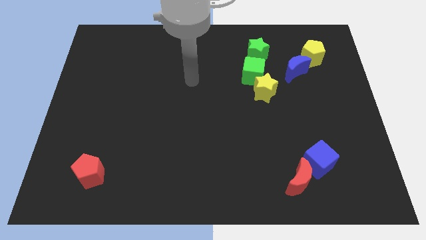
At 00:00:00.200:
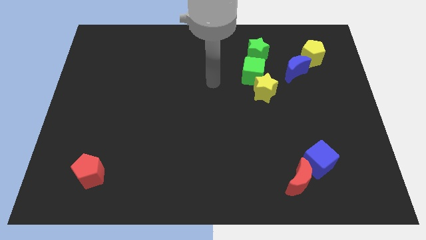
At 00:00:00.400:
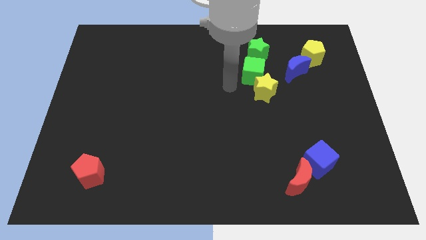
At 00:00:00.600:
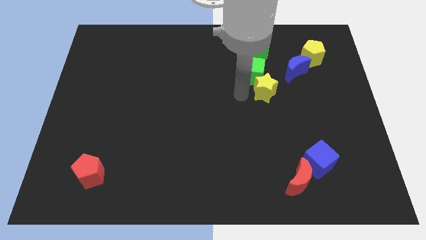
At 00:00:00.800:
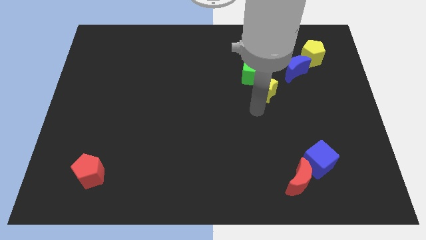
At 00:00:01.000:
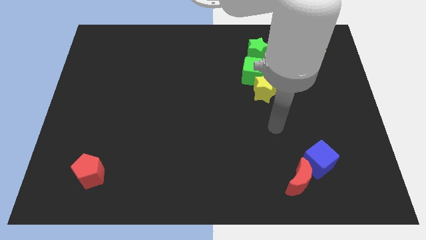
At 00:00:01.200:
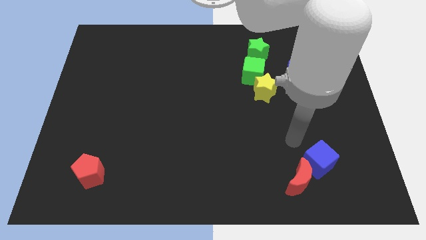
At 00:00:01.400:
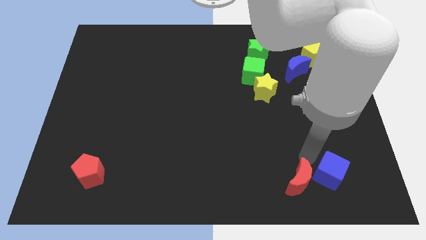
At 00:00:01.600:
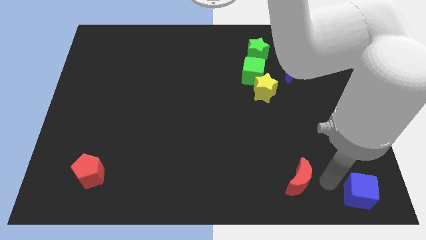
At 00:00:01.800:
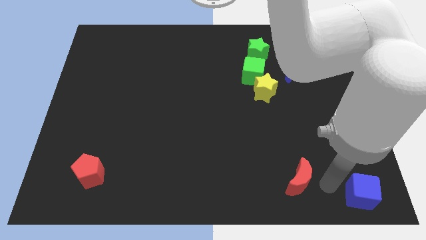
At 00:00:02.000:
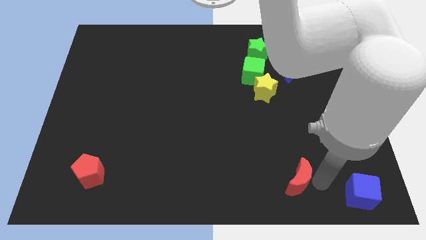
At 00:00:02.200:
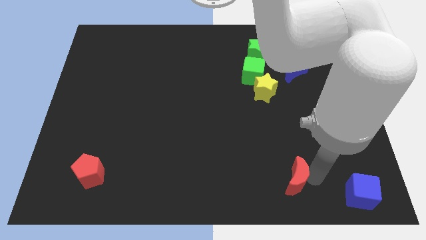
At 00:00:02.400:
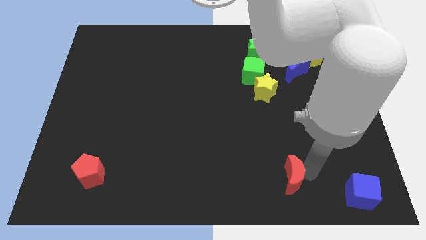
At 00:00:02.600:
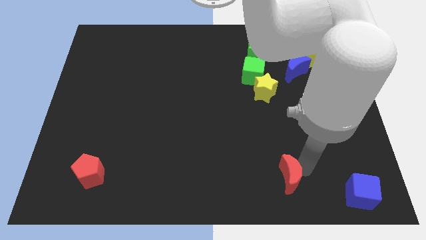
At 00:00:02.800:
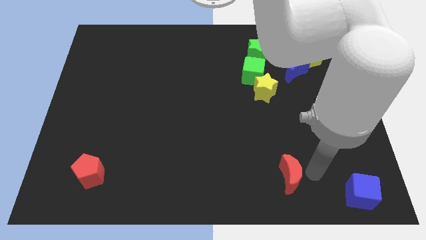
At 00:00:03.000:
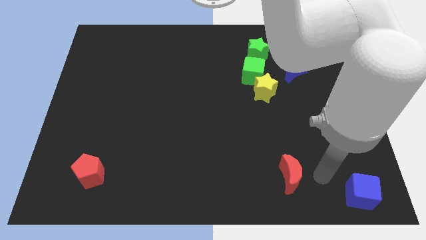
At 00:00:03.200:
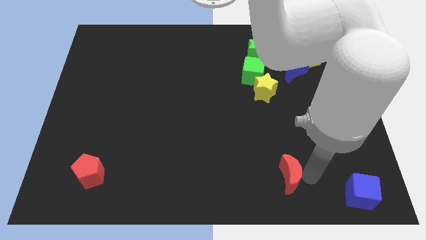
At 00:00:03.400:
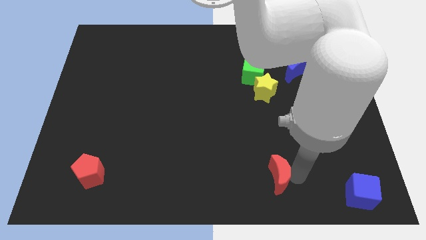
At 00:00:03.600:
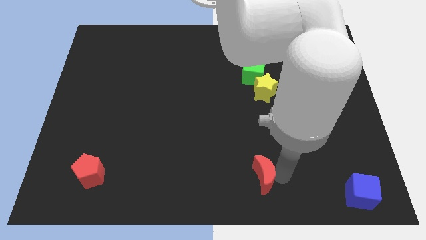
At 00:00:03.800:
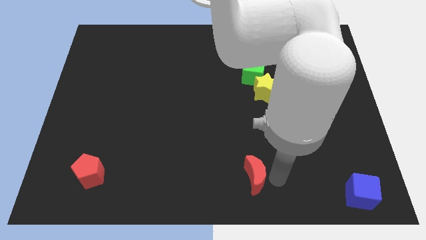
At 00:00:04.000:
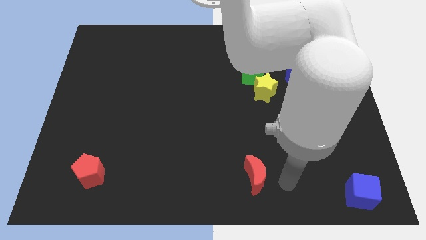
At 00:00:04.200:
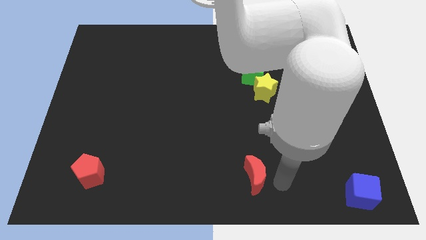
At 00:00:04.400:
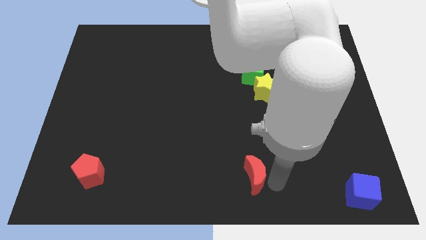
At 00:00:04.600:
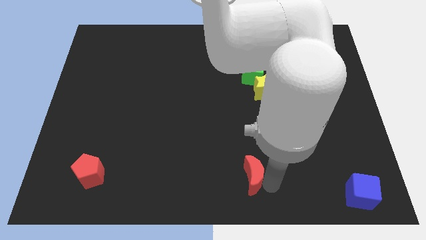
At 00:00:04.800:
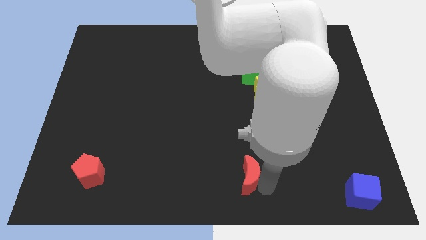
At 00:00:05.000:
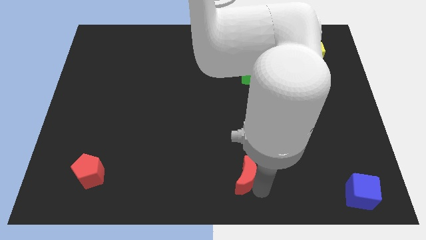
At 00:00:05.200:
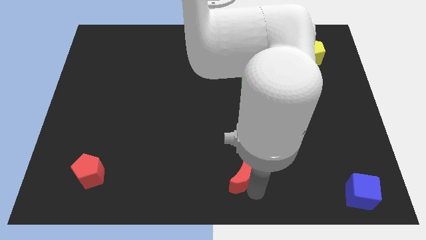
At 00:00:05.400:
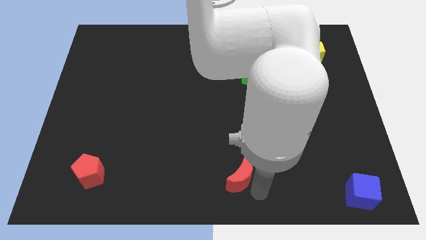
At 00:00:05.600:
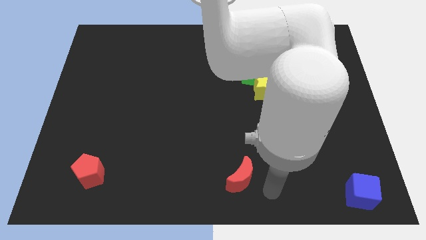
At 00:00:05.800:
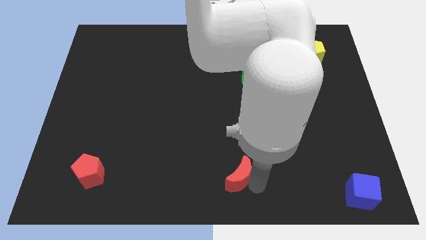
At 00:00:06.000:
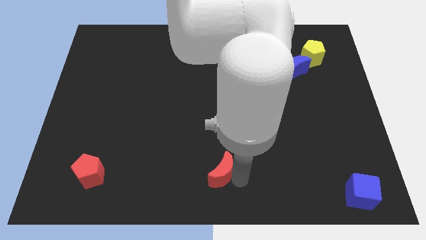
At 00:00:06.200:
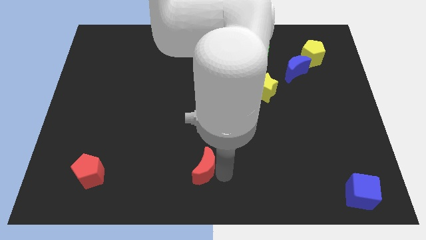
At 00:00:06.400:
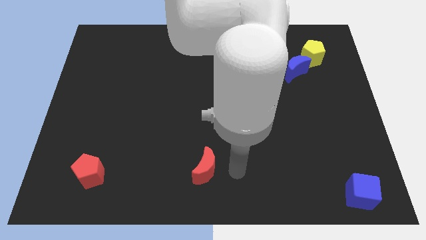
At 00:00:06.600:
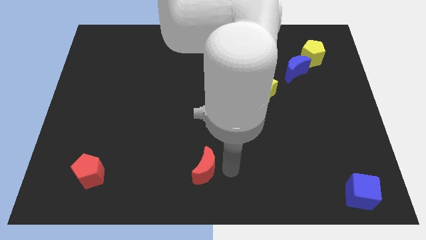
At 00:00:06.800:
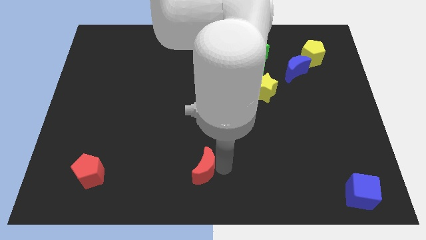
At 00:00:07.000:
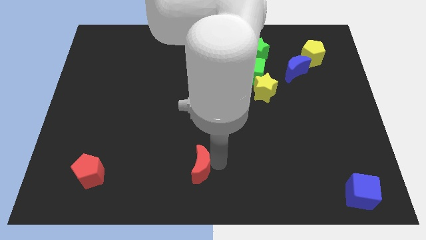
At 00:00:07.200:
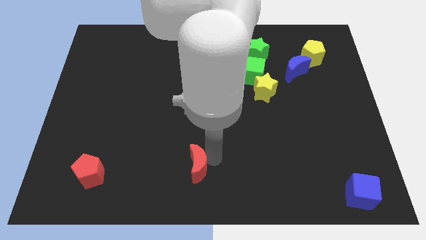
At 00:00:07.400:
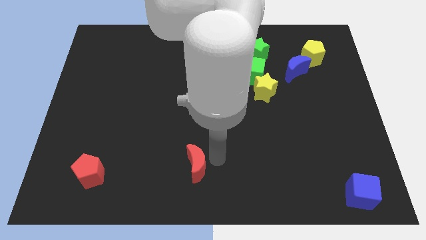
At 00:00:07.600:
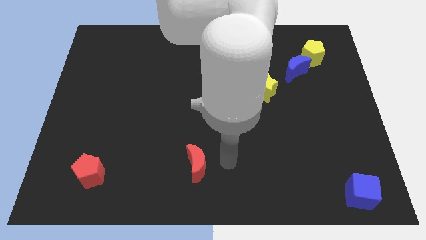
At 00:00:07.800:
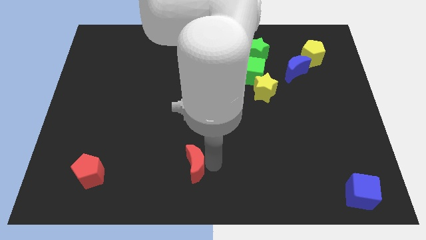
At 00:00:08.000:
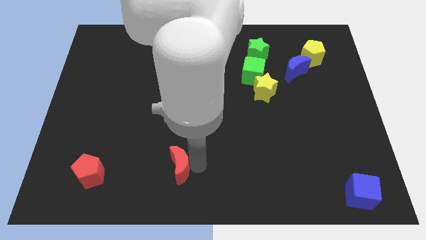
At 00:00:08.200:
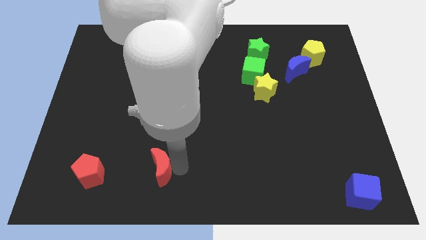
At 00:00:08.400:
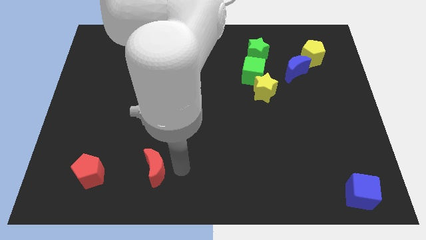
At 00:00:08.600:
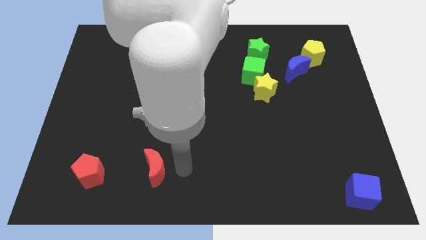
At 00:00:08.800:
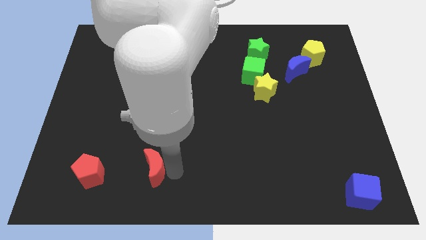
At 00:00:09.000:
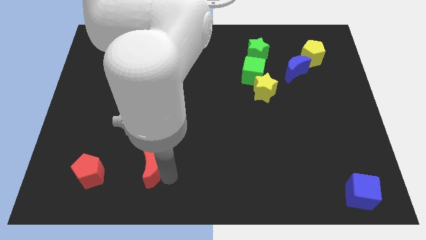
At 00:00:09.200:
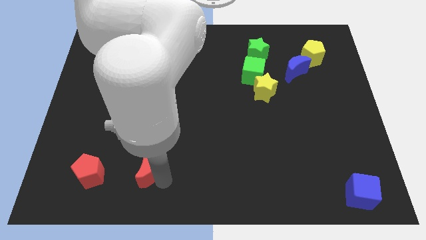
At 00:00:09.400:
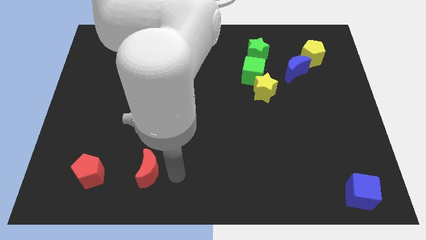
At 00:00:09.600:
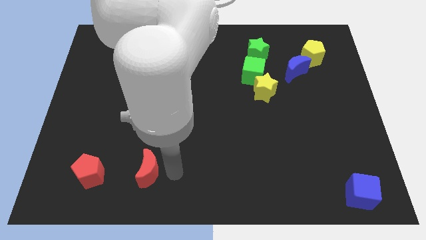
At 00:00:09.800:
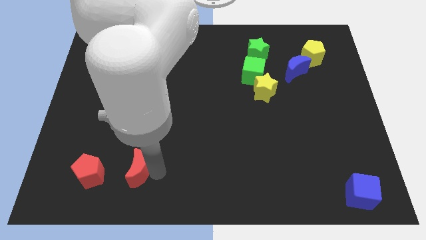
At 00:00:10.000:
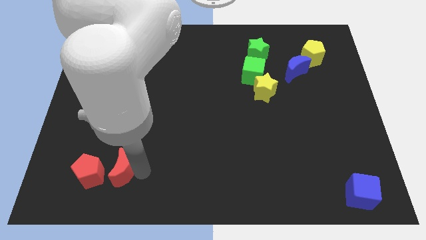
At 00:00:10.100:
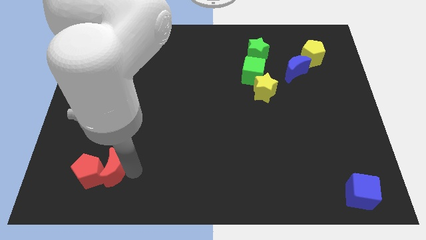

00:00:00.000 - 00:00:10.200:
move the red moon next to the red pentagon
